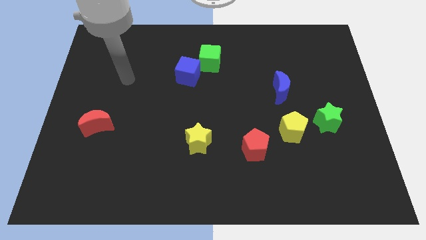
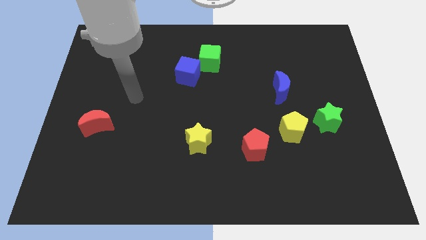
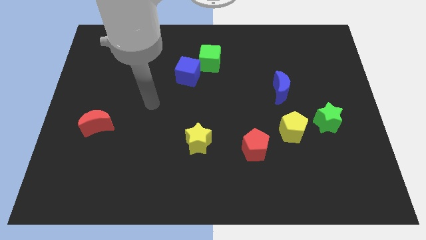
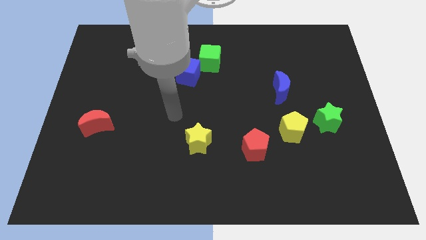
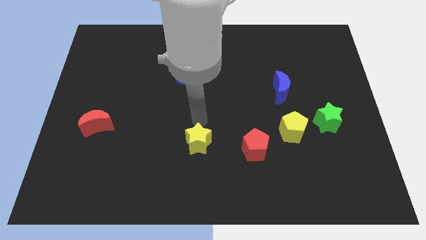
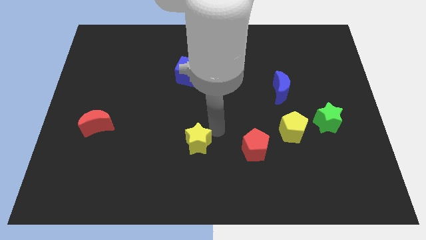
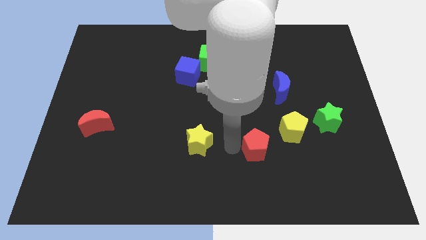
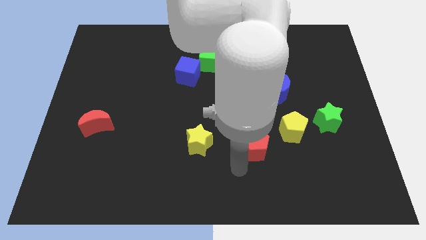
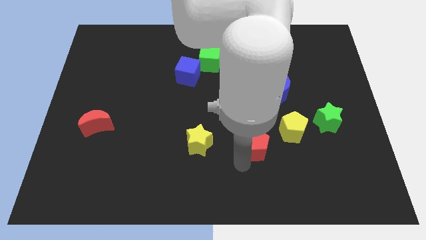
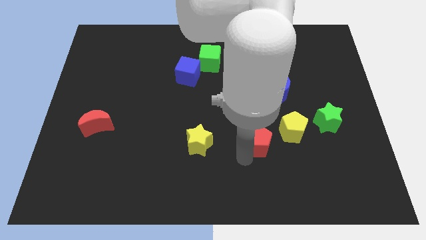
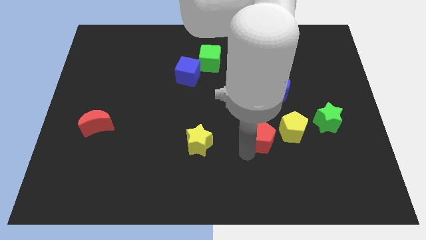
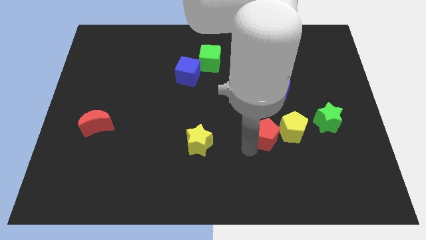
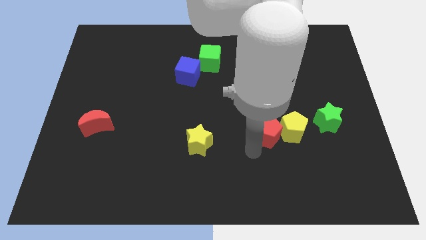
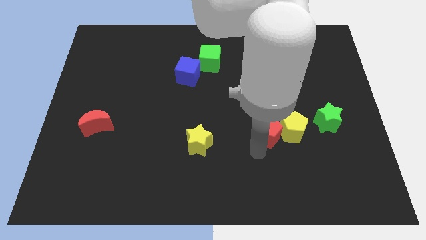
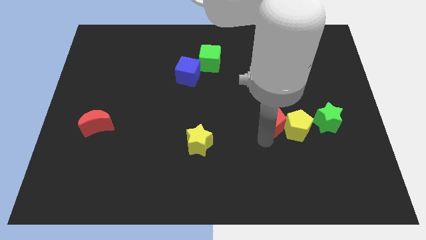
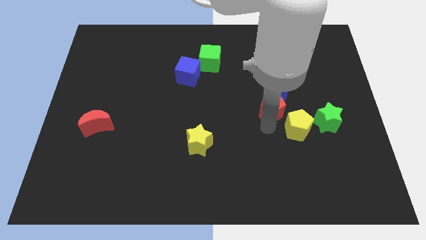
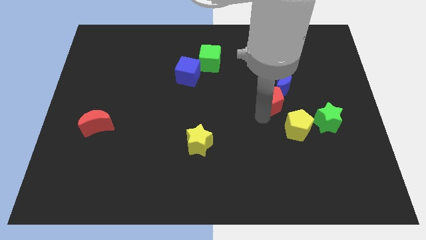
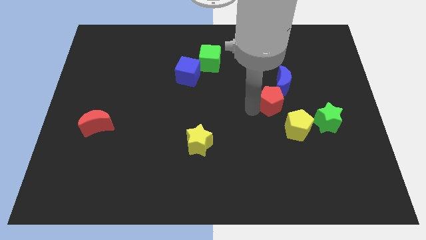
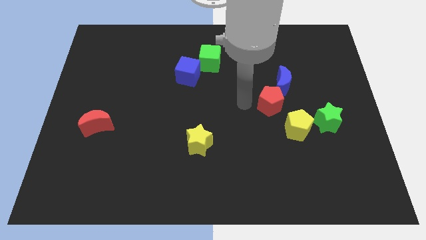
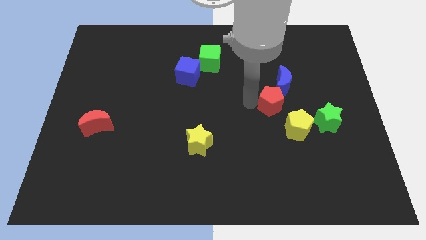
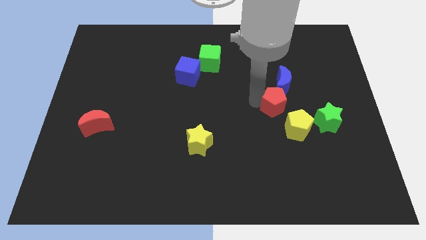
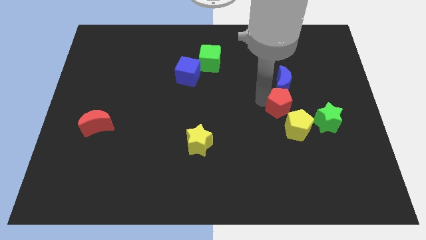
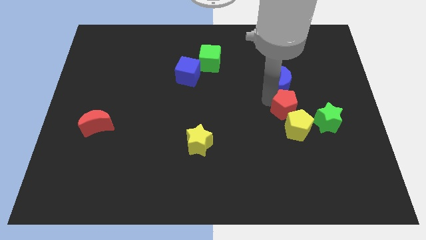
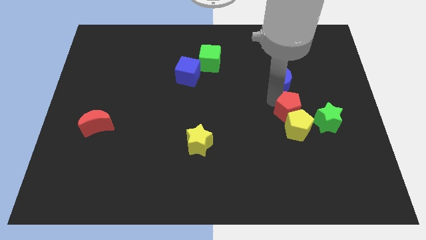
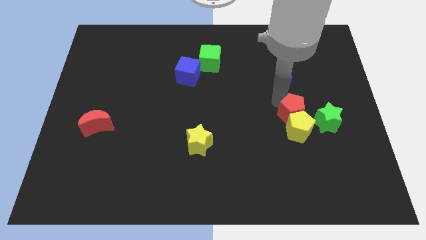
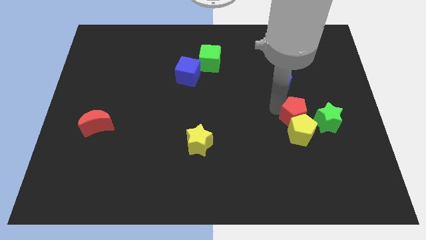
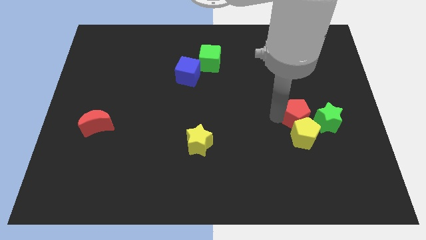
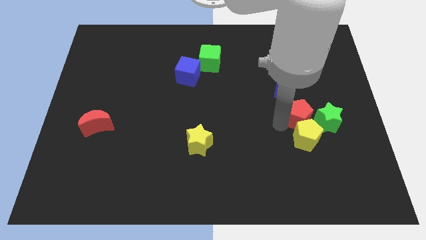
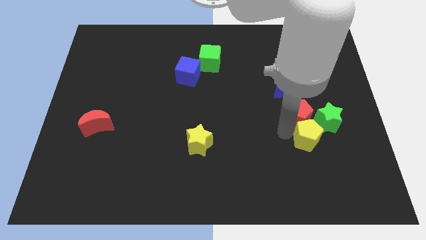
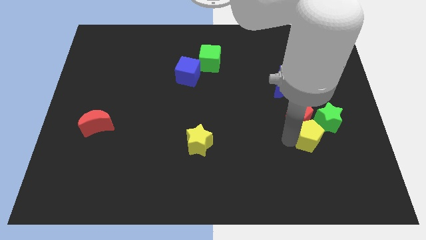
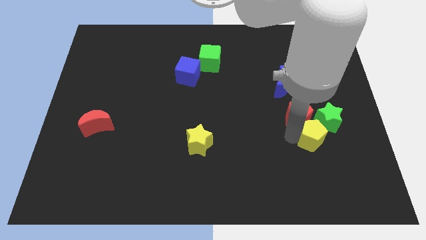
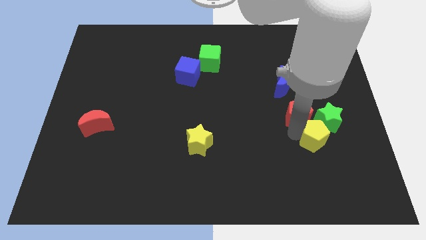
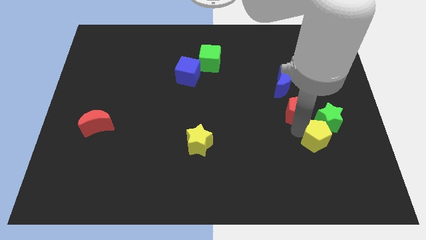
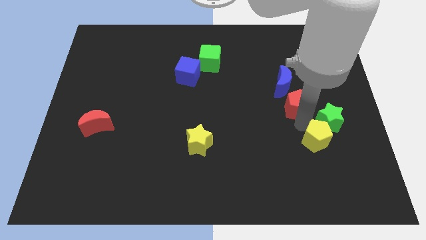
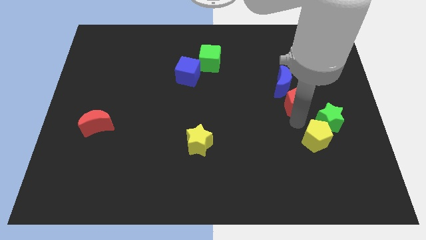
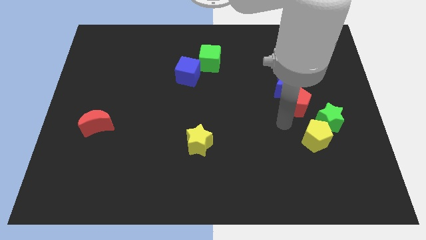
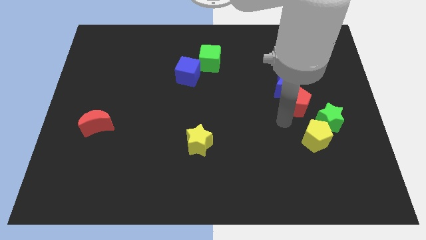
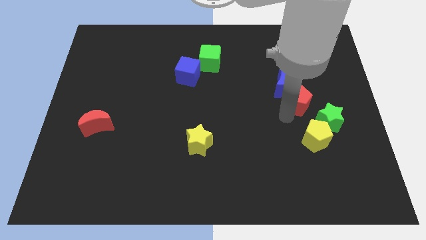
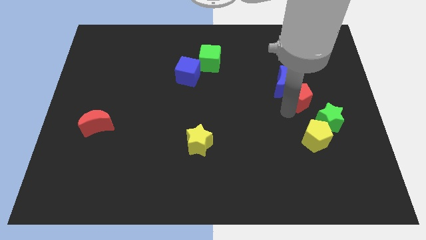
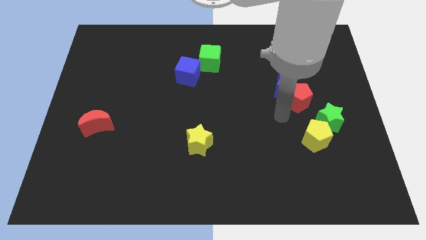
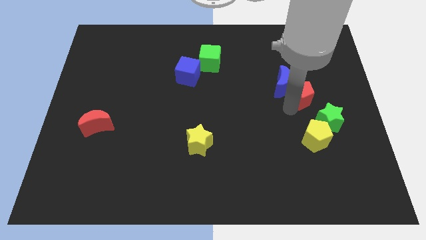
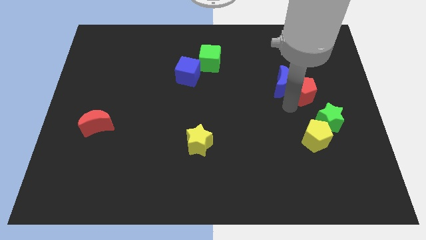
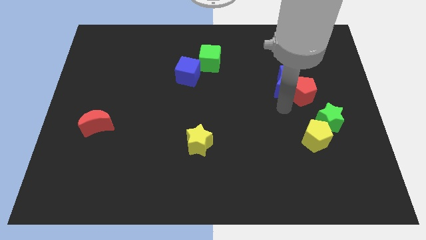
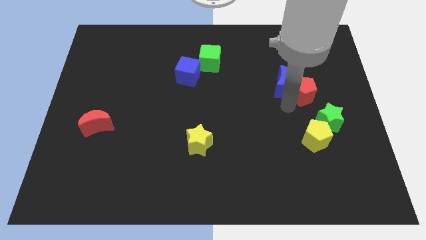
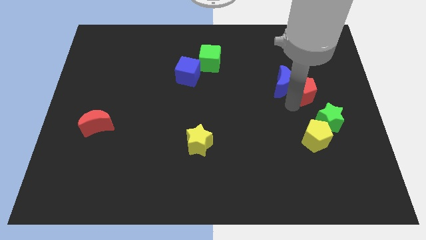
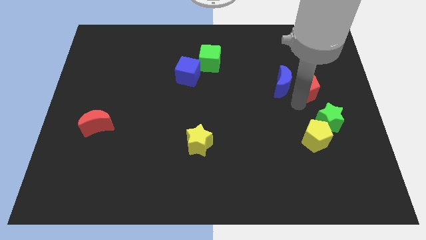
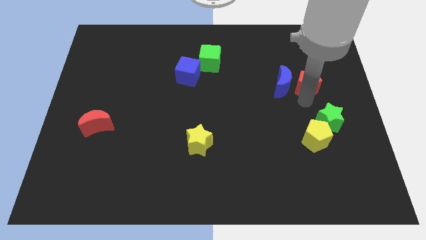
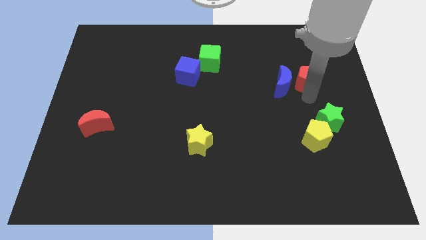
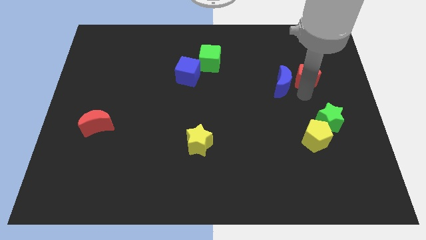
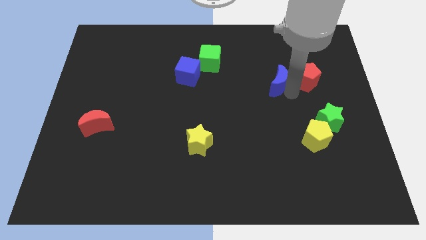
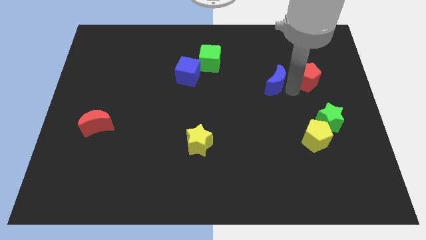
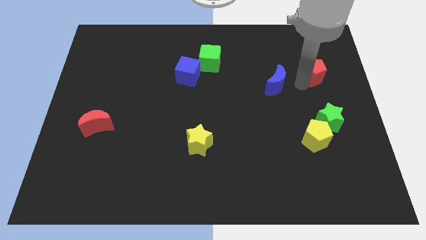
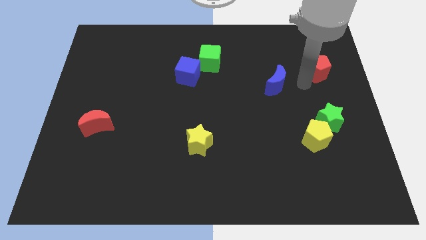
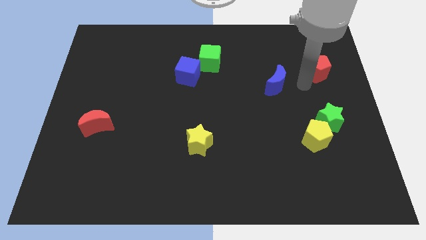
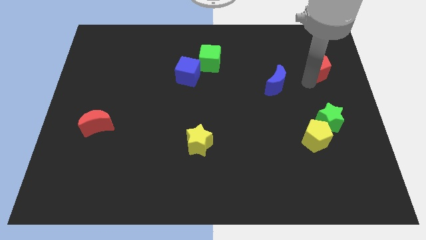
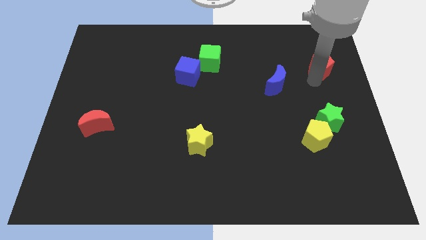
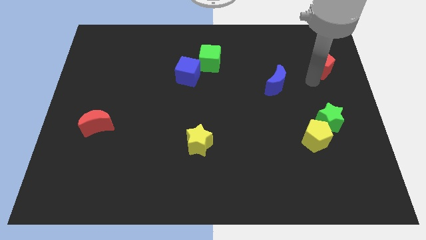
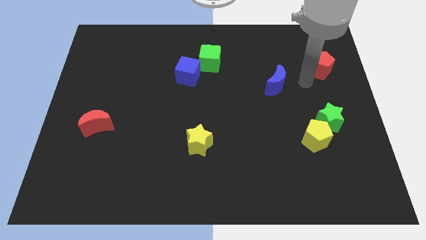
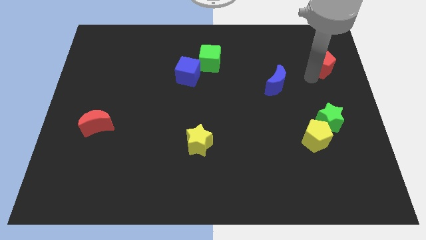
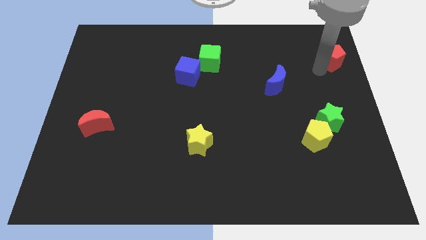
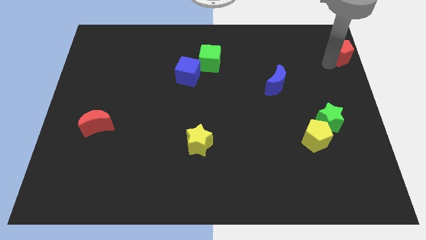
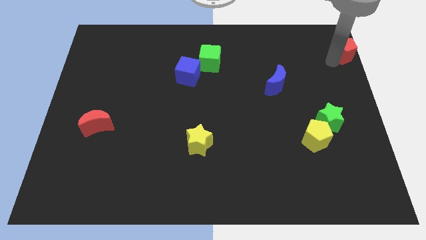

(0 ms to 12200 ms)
put the red pentagon to the top right corner

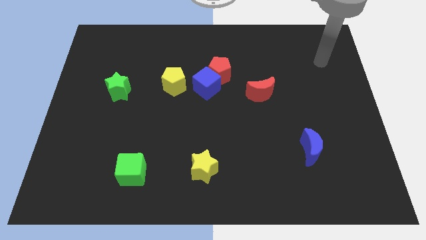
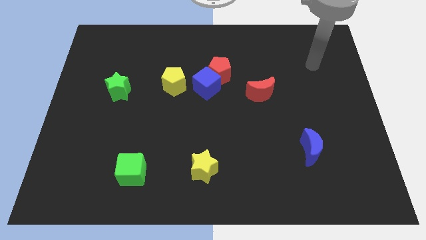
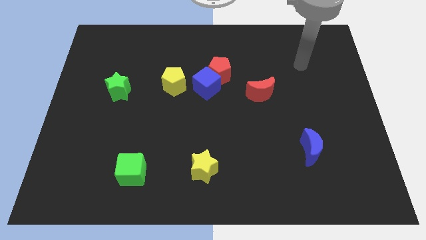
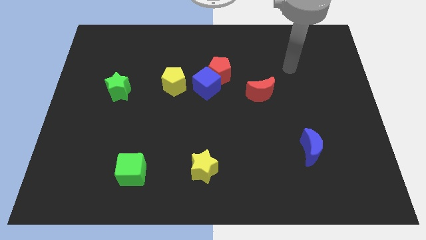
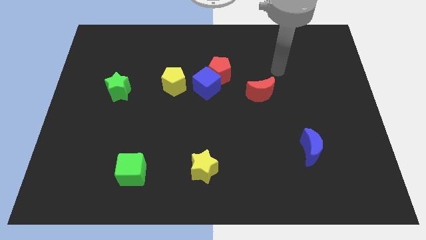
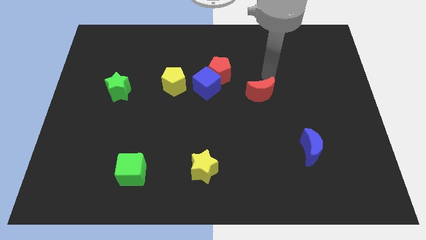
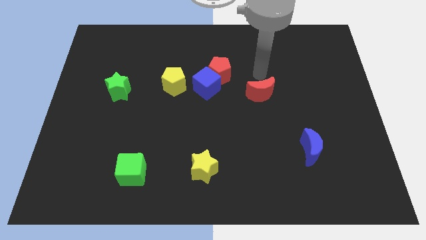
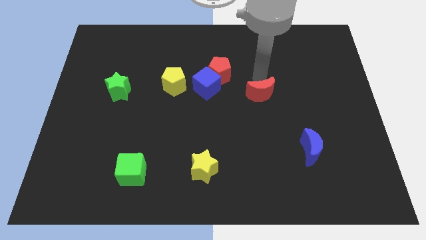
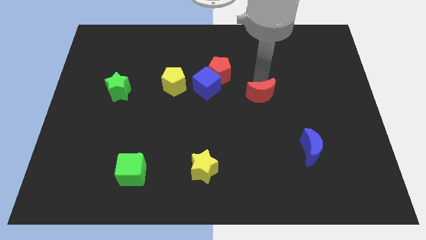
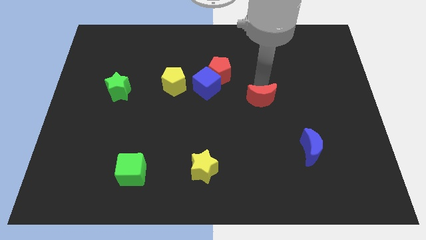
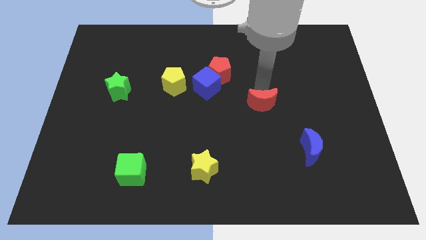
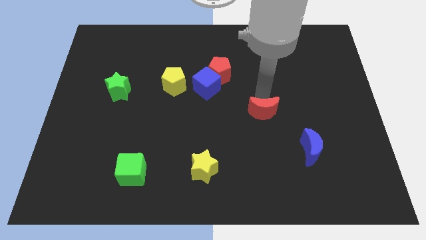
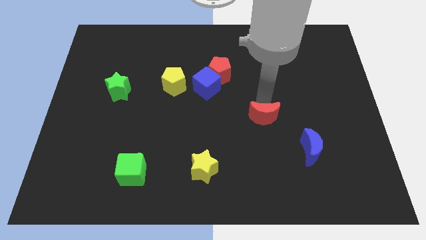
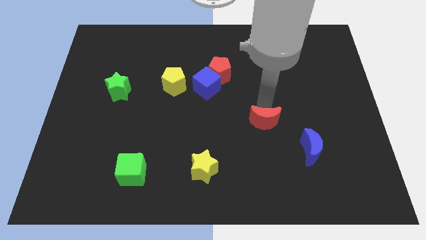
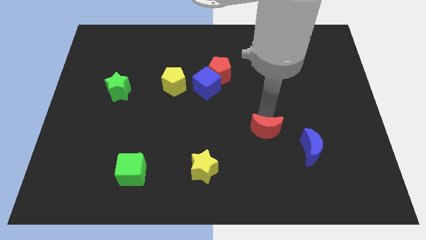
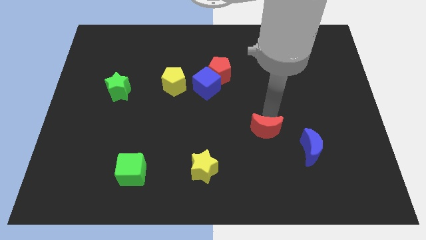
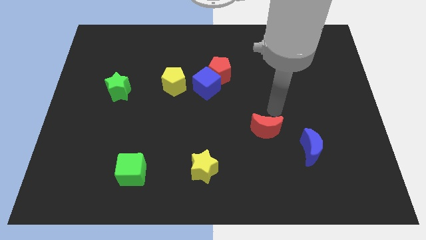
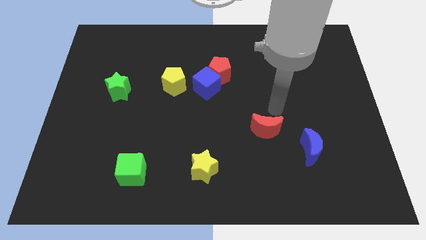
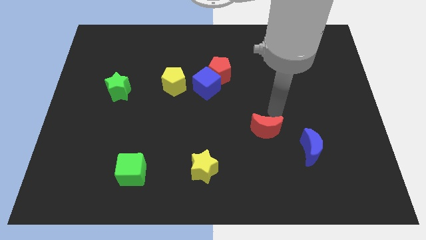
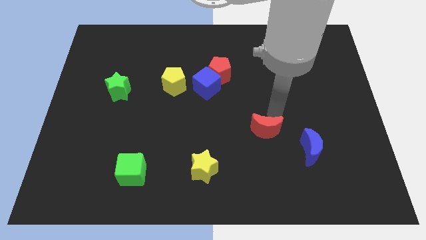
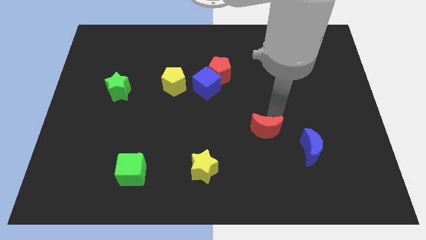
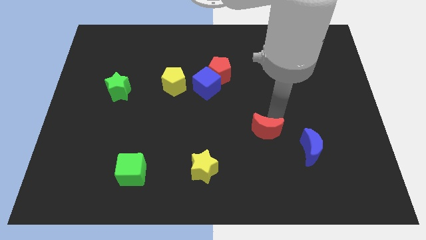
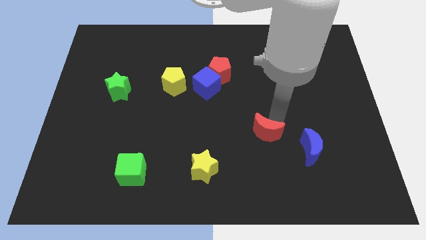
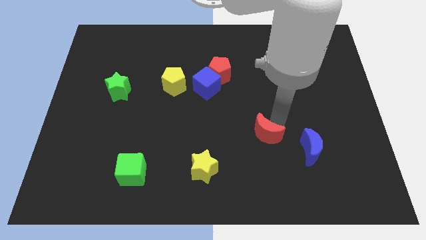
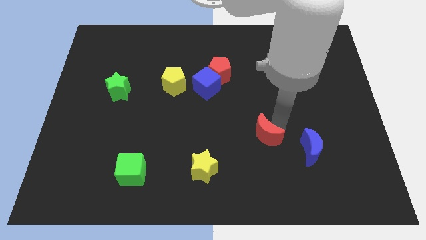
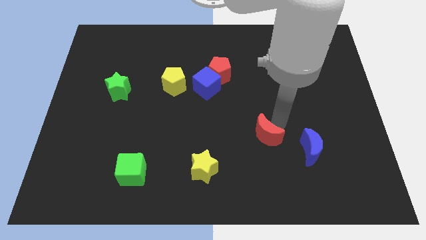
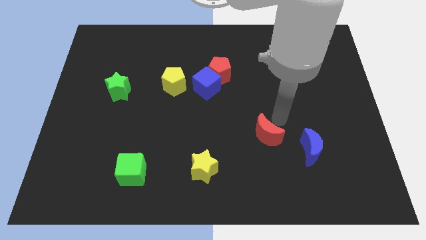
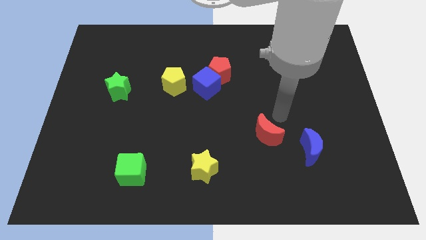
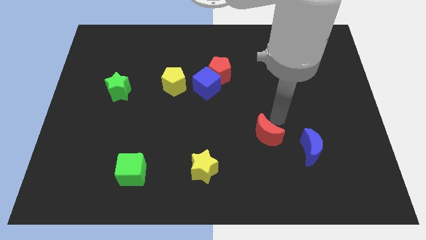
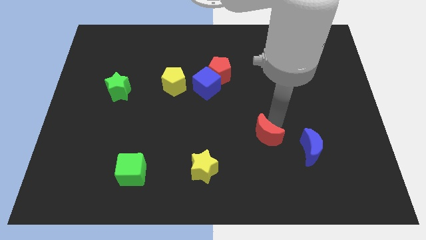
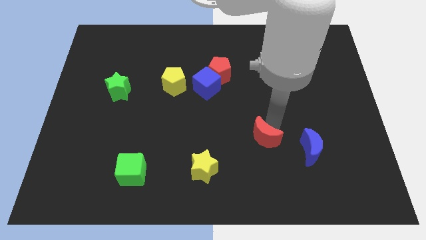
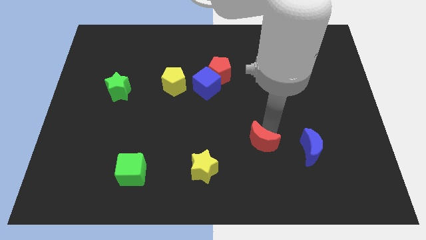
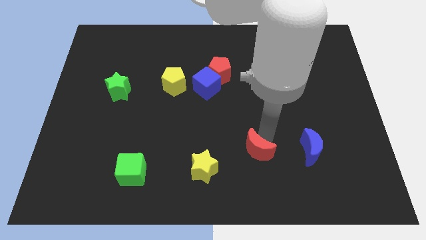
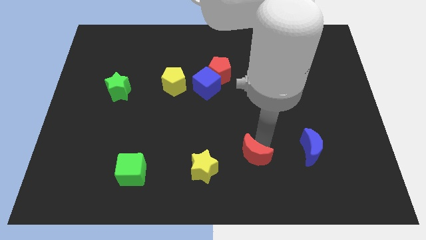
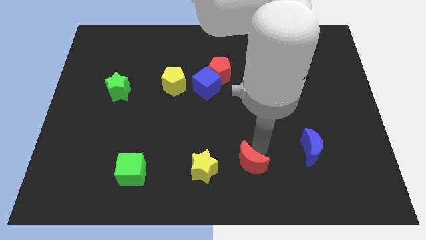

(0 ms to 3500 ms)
put the red moon to the bottom side
